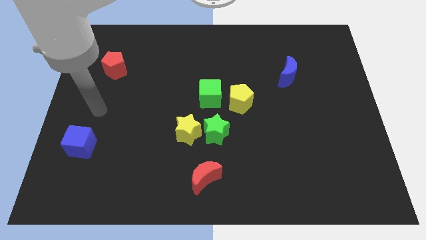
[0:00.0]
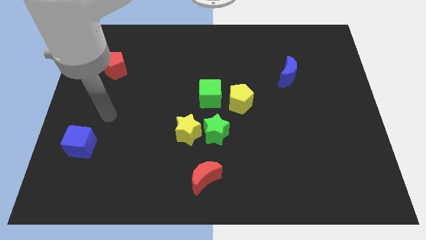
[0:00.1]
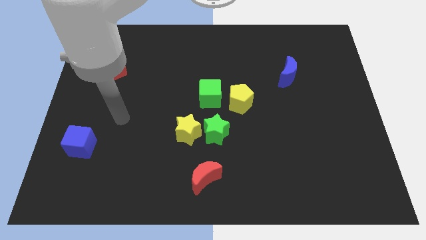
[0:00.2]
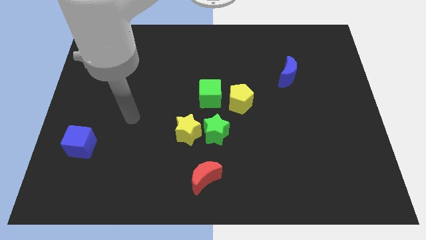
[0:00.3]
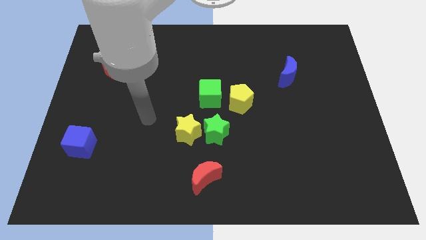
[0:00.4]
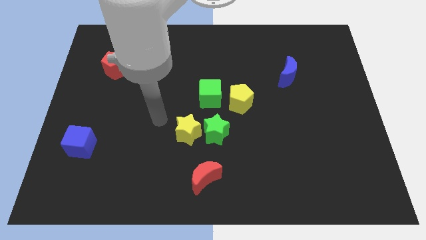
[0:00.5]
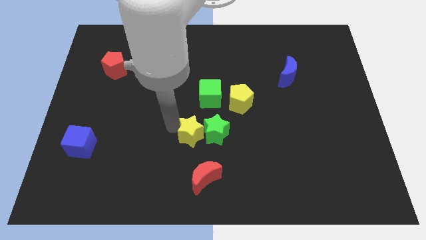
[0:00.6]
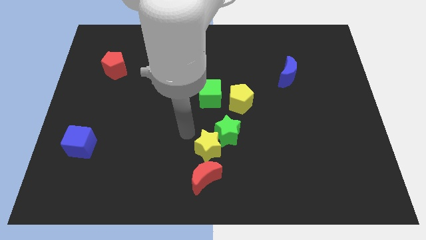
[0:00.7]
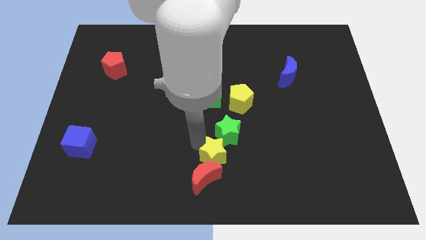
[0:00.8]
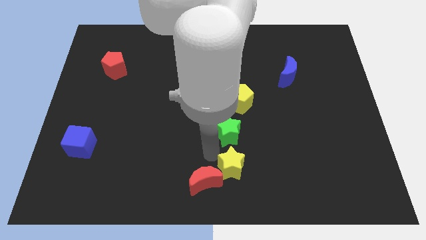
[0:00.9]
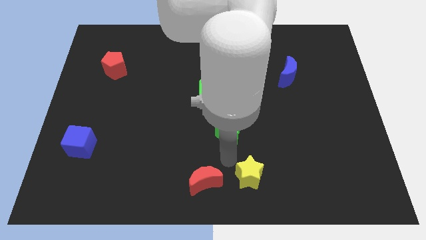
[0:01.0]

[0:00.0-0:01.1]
pull the green star apart from the yellow star

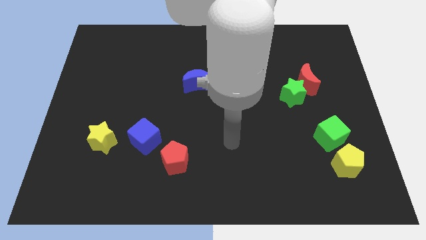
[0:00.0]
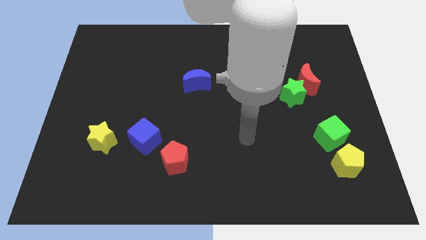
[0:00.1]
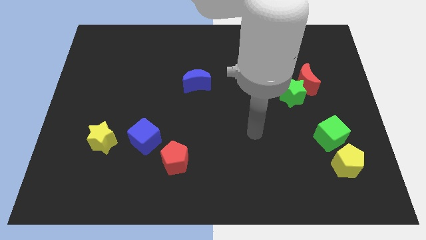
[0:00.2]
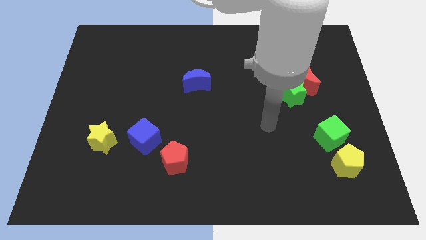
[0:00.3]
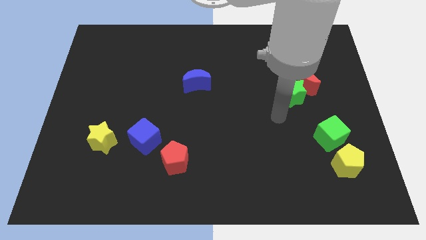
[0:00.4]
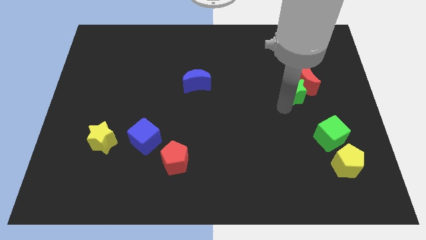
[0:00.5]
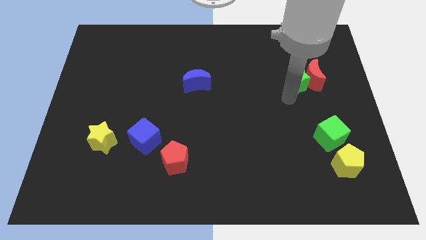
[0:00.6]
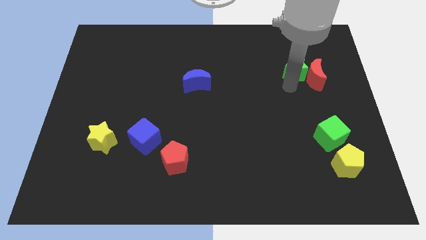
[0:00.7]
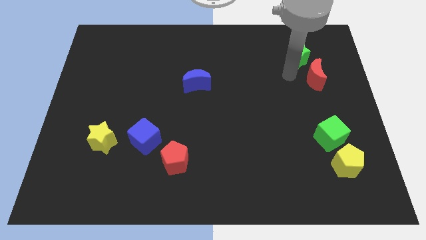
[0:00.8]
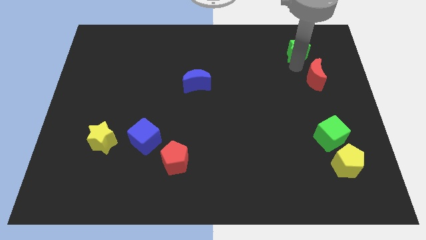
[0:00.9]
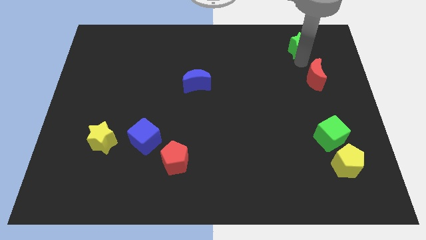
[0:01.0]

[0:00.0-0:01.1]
move the red moon away from the green star

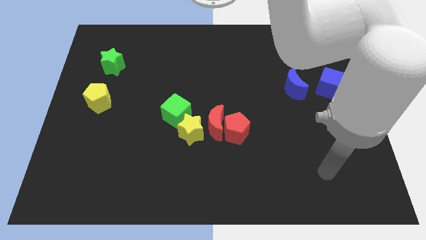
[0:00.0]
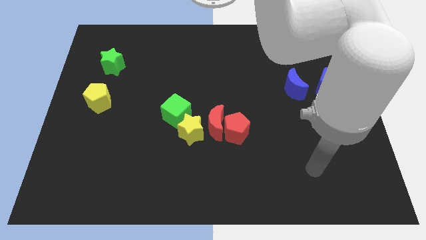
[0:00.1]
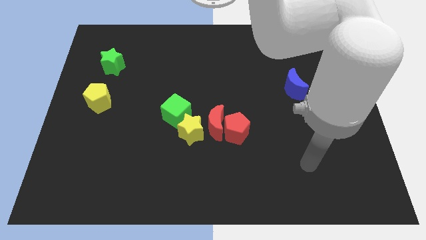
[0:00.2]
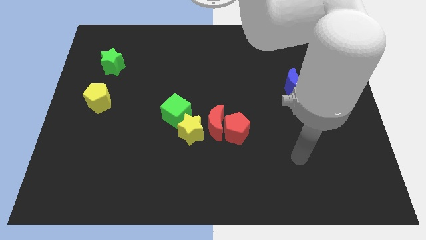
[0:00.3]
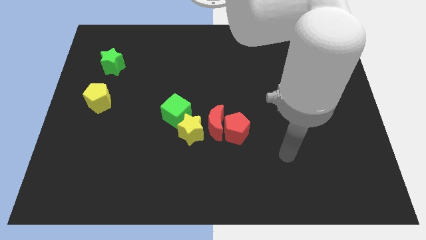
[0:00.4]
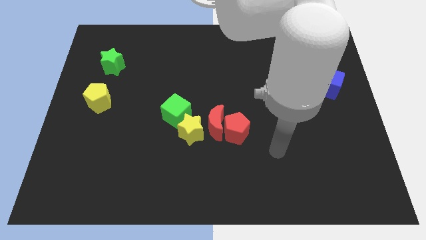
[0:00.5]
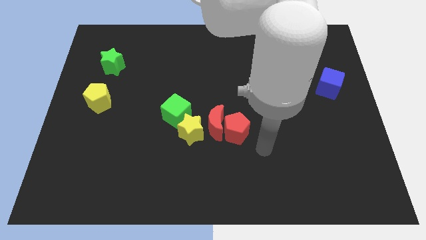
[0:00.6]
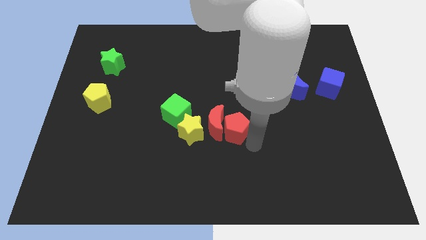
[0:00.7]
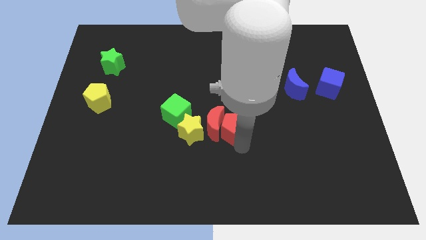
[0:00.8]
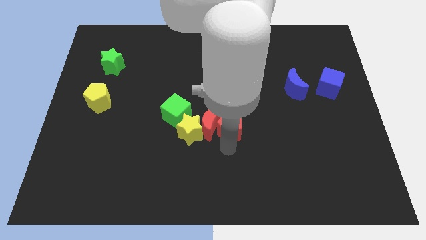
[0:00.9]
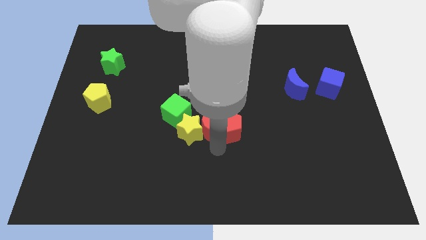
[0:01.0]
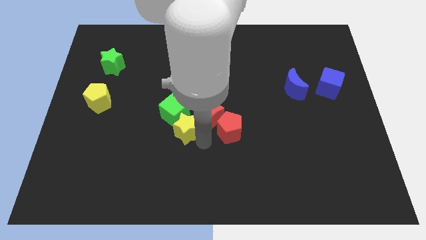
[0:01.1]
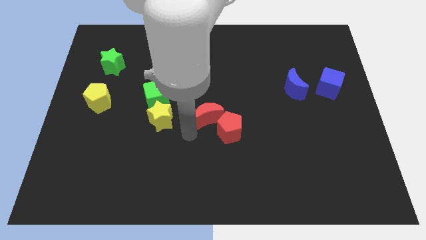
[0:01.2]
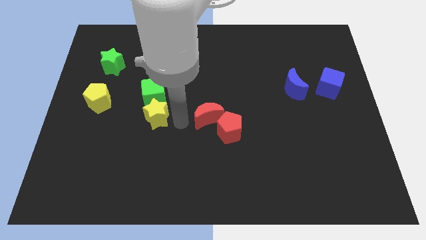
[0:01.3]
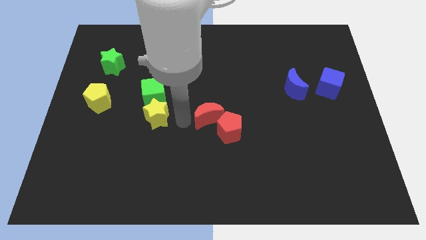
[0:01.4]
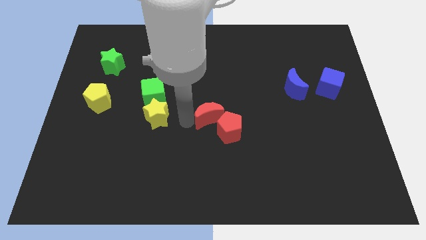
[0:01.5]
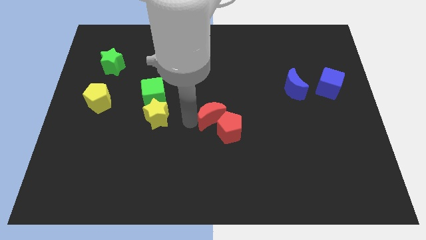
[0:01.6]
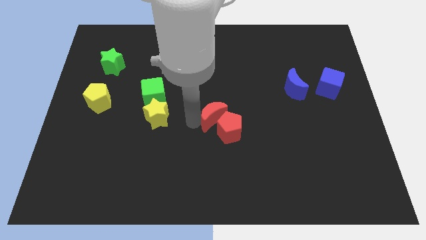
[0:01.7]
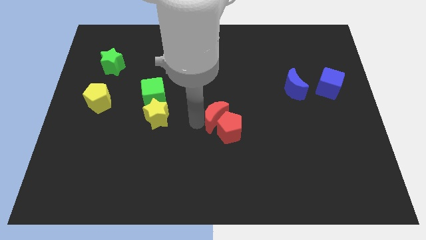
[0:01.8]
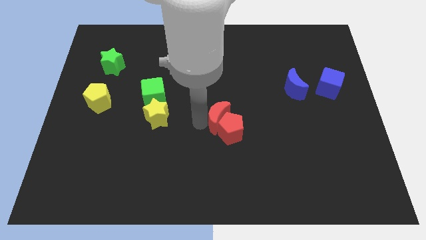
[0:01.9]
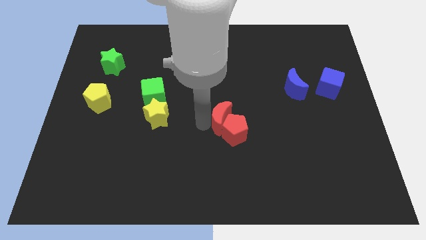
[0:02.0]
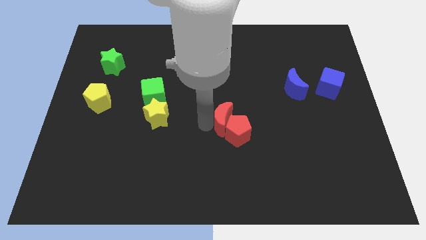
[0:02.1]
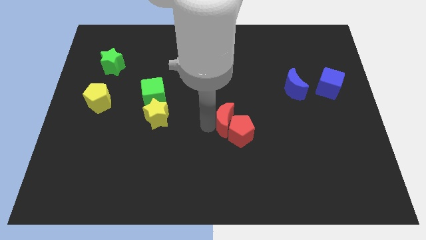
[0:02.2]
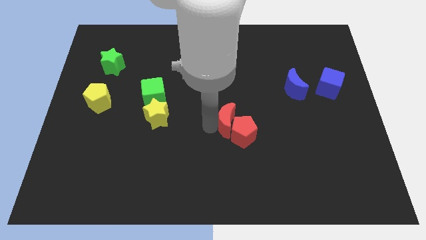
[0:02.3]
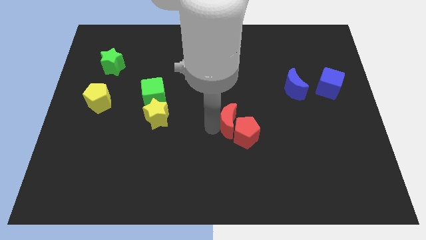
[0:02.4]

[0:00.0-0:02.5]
separate the red moon from the group

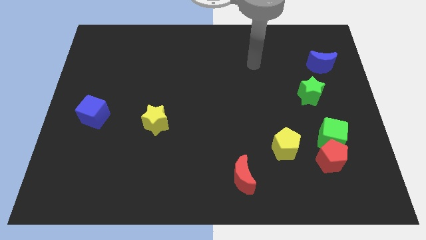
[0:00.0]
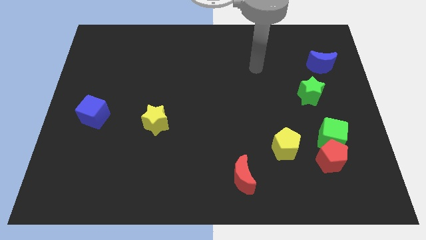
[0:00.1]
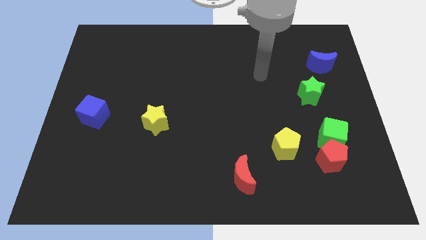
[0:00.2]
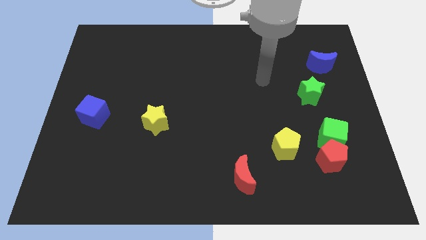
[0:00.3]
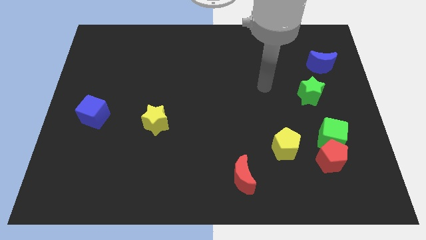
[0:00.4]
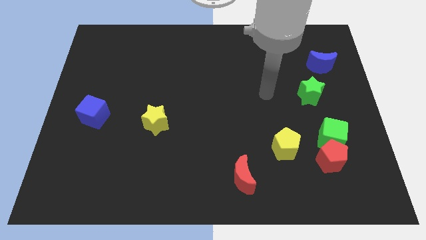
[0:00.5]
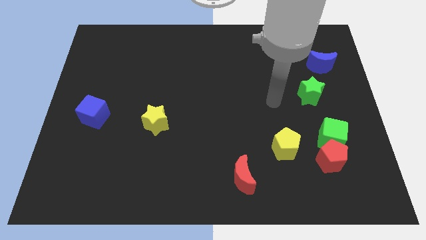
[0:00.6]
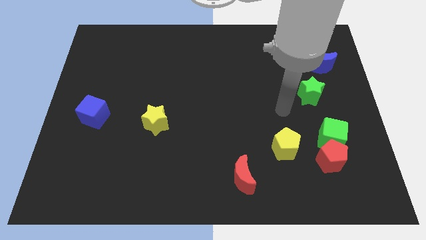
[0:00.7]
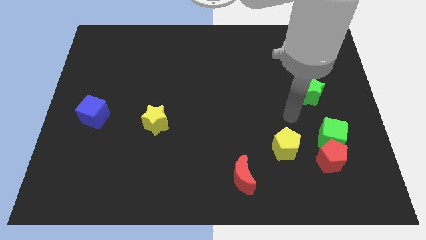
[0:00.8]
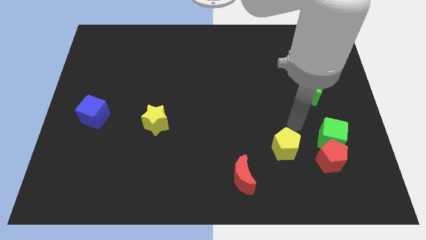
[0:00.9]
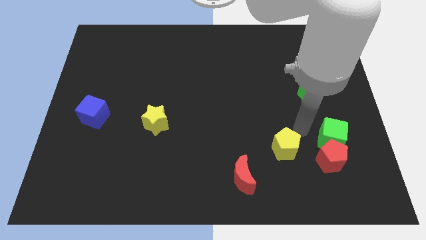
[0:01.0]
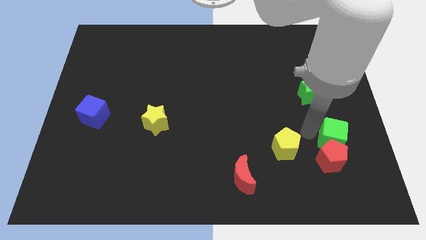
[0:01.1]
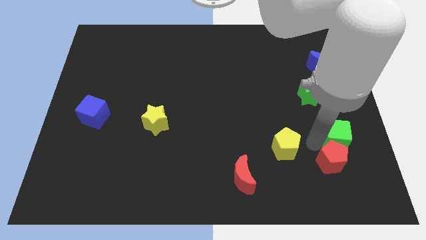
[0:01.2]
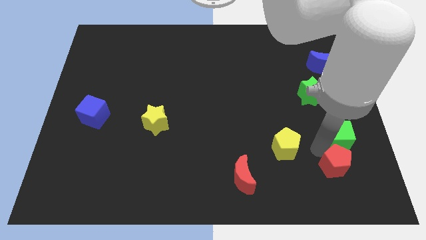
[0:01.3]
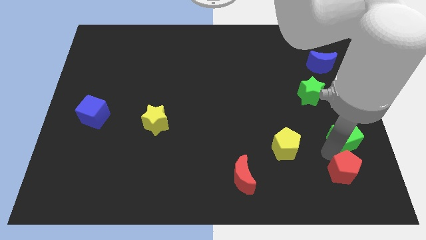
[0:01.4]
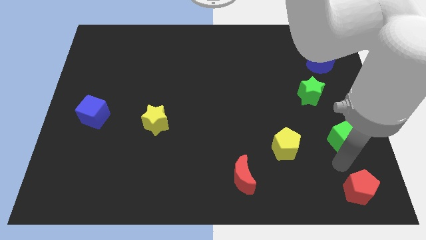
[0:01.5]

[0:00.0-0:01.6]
move the green cube away from the red pentagon

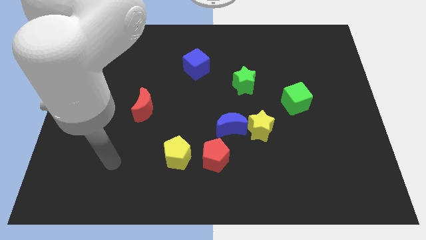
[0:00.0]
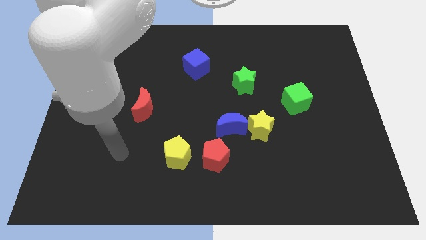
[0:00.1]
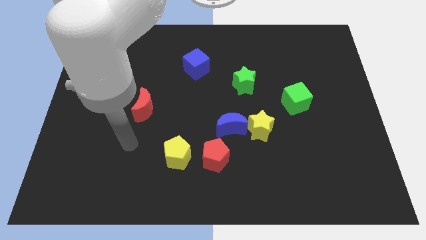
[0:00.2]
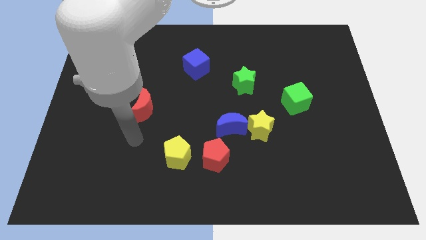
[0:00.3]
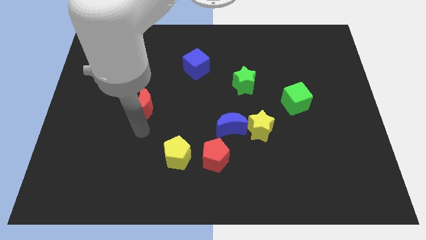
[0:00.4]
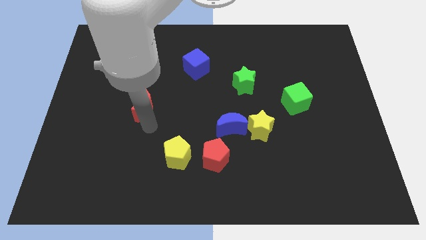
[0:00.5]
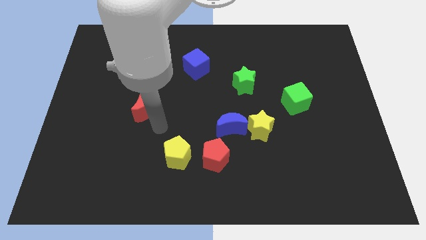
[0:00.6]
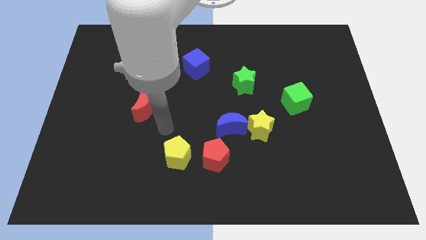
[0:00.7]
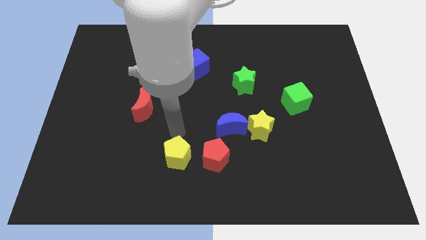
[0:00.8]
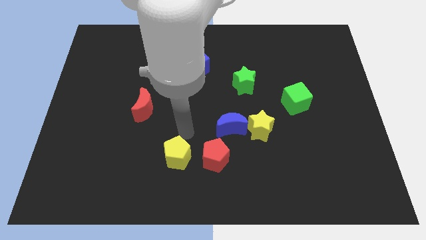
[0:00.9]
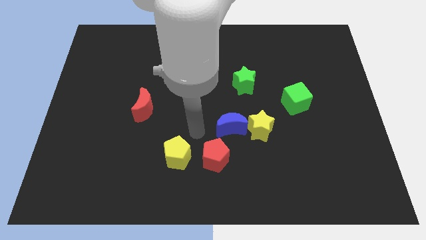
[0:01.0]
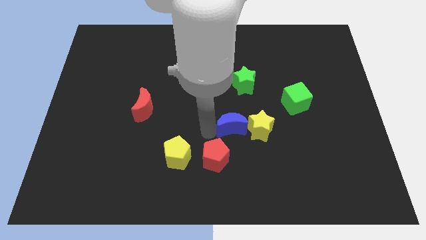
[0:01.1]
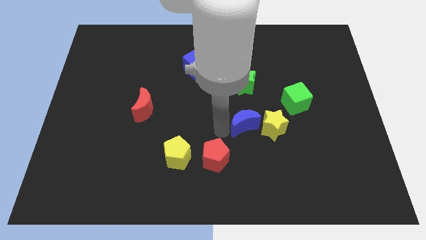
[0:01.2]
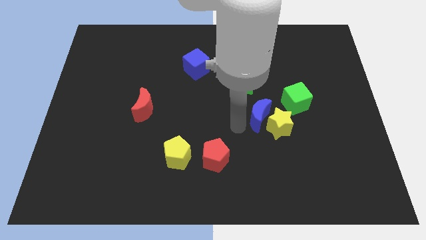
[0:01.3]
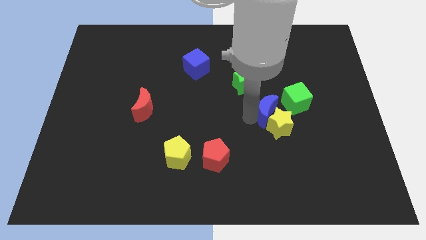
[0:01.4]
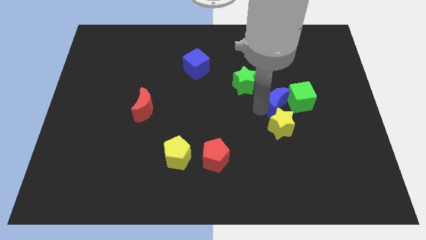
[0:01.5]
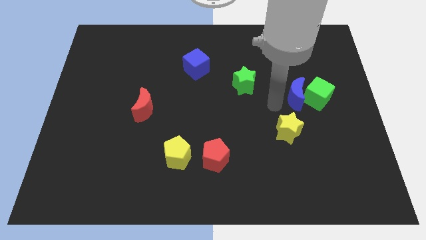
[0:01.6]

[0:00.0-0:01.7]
separate the yellow star from the blue moon

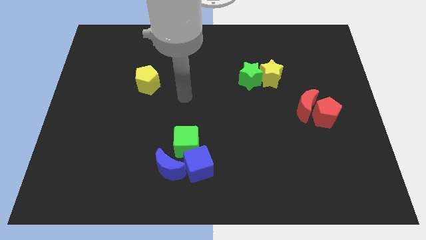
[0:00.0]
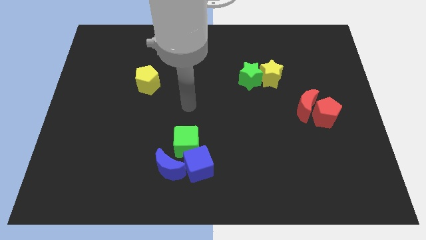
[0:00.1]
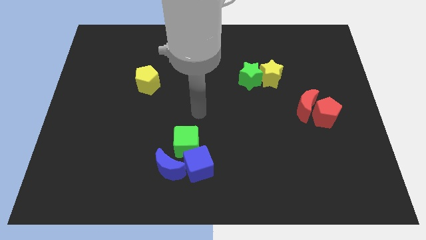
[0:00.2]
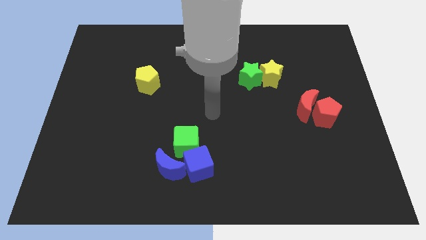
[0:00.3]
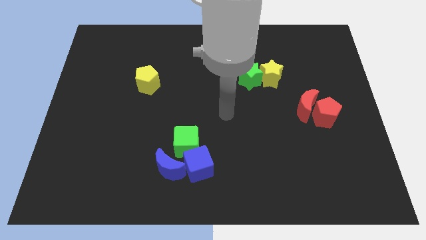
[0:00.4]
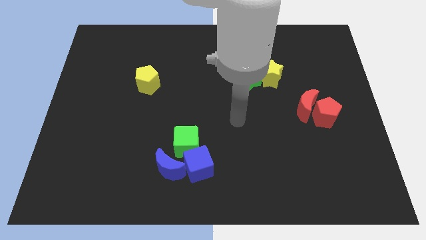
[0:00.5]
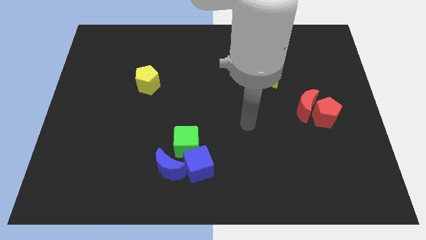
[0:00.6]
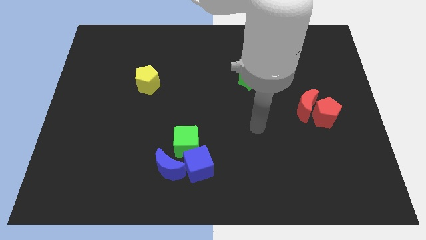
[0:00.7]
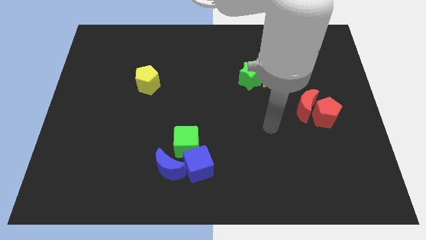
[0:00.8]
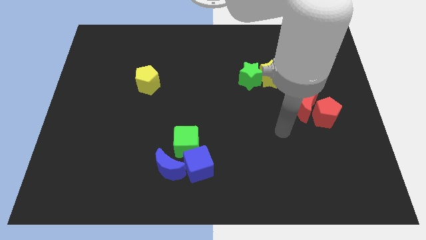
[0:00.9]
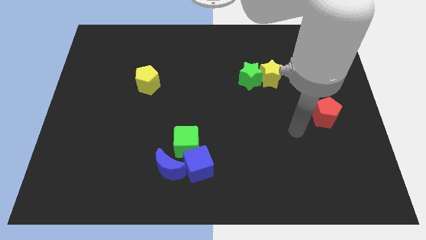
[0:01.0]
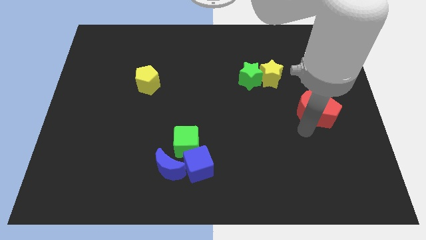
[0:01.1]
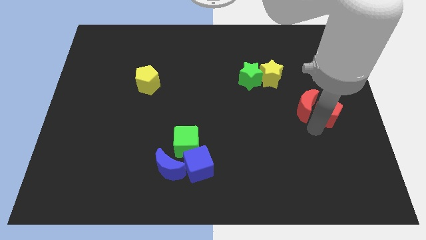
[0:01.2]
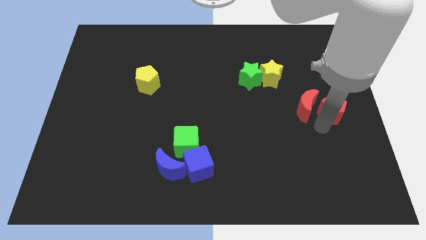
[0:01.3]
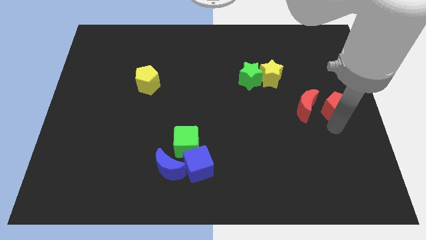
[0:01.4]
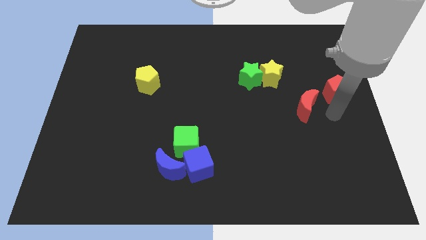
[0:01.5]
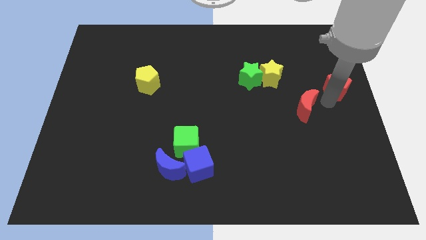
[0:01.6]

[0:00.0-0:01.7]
separate the red moon from the red pentagon
